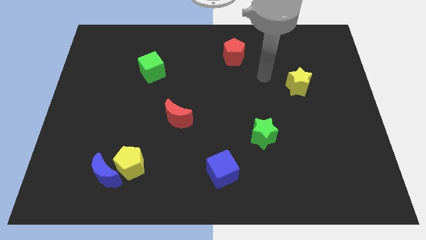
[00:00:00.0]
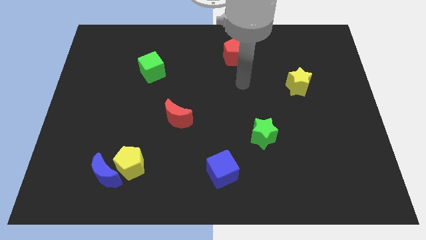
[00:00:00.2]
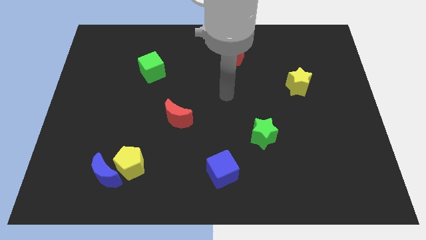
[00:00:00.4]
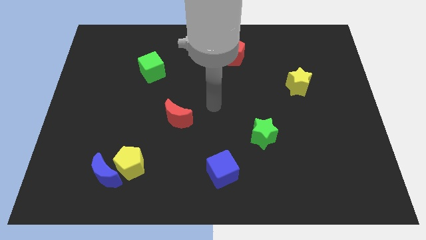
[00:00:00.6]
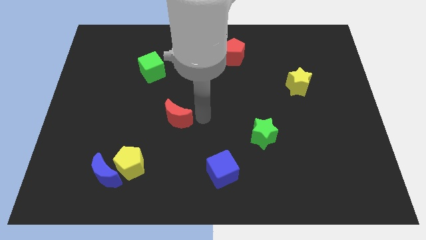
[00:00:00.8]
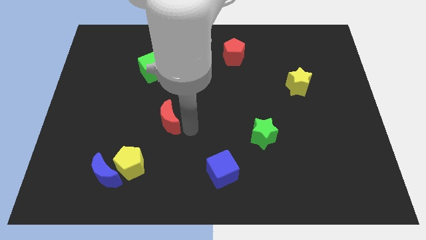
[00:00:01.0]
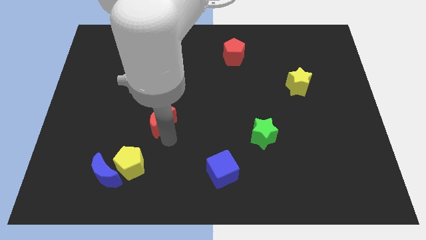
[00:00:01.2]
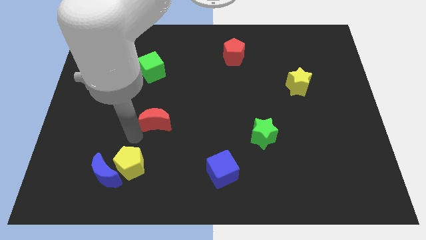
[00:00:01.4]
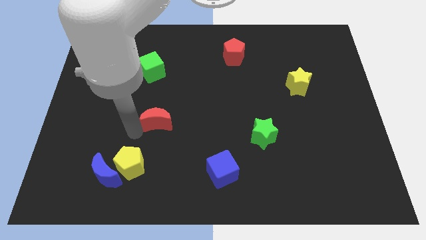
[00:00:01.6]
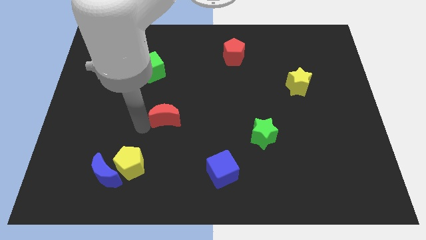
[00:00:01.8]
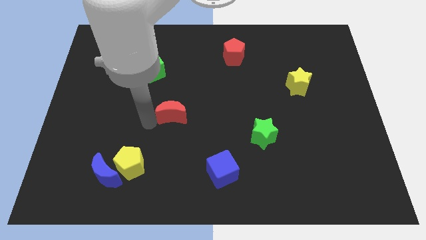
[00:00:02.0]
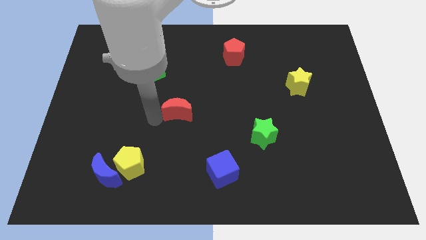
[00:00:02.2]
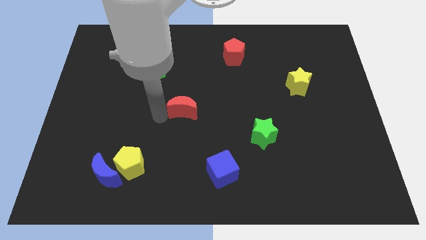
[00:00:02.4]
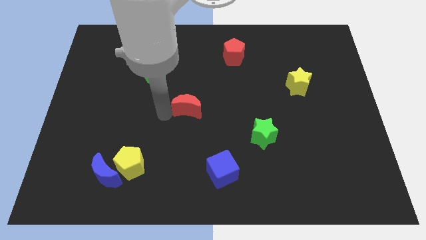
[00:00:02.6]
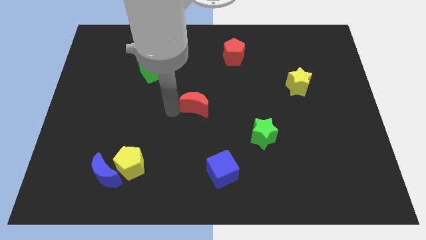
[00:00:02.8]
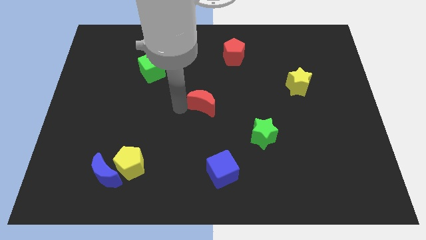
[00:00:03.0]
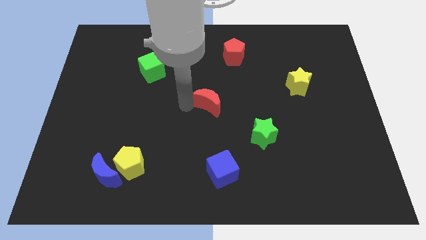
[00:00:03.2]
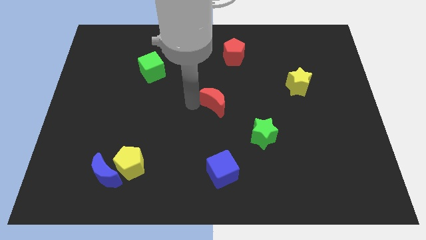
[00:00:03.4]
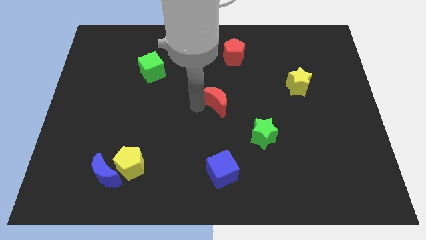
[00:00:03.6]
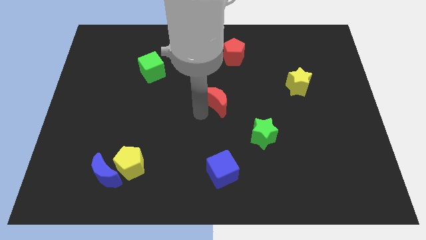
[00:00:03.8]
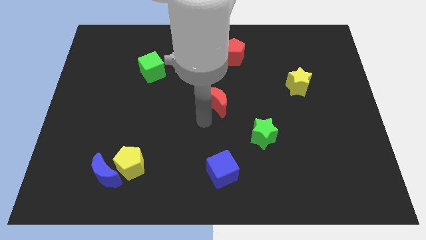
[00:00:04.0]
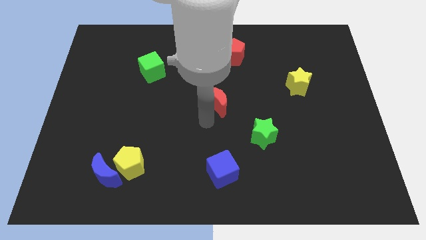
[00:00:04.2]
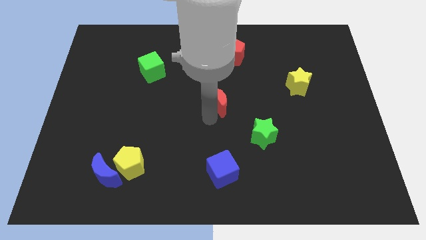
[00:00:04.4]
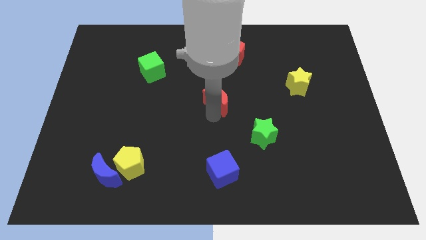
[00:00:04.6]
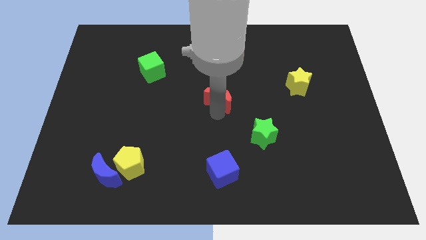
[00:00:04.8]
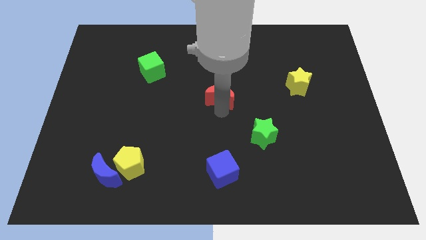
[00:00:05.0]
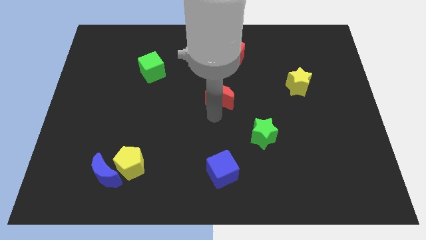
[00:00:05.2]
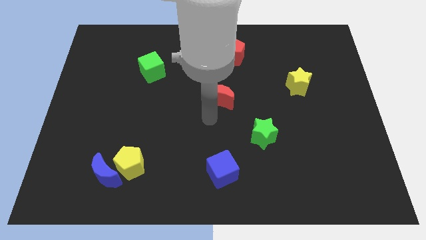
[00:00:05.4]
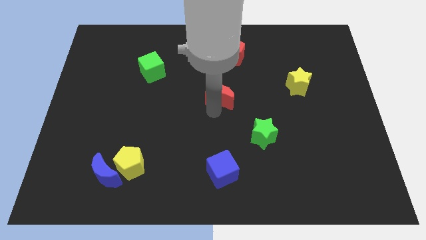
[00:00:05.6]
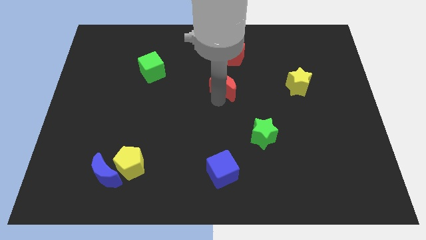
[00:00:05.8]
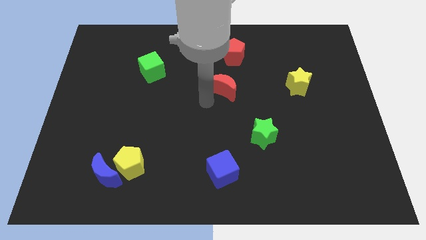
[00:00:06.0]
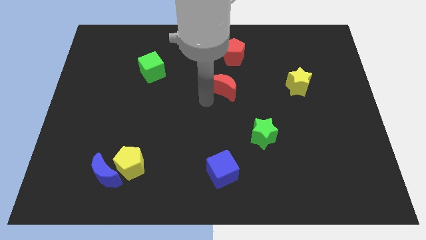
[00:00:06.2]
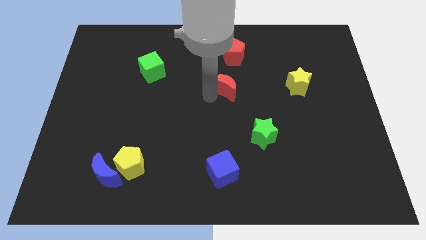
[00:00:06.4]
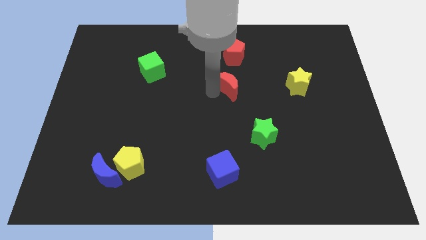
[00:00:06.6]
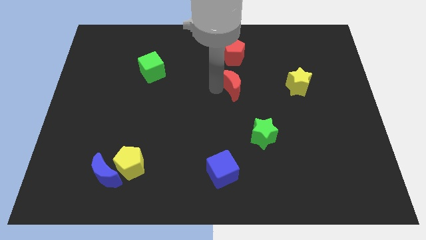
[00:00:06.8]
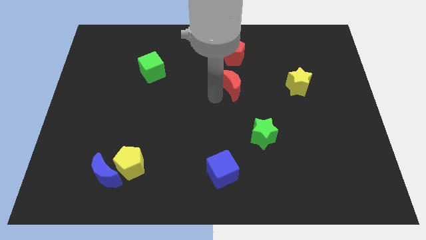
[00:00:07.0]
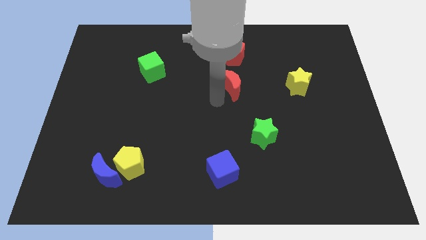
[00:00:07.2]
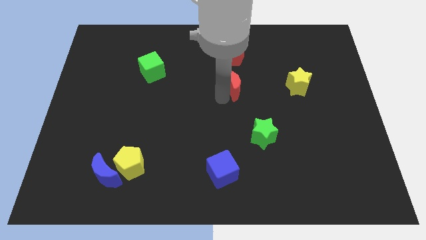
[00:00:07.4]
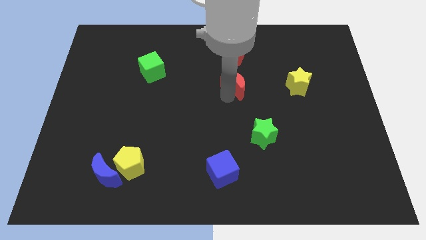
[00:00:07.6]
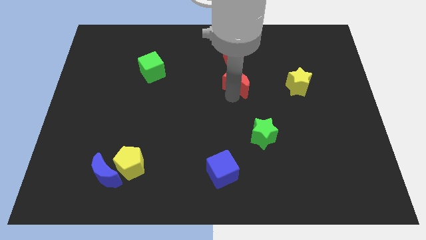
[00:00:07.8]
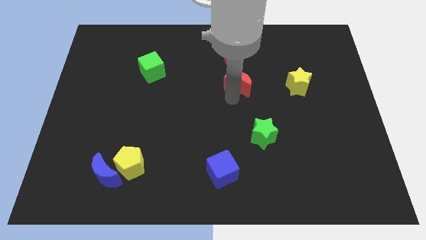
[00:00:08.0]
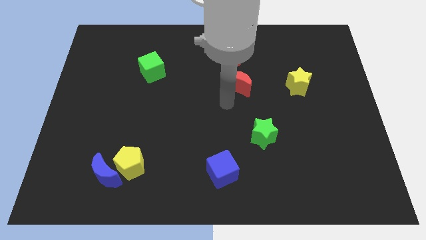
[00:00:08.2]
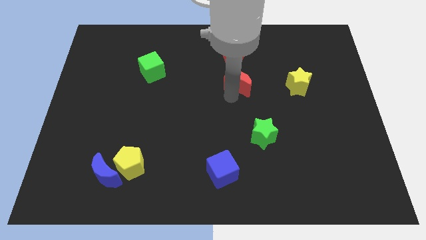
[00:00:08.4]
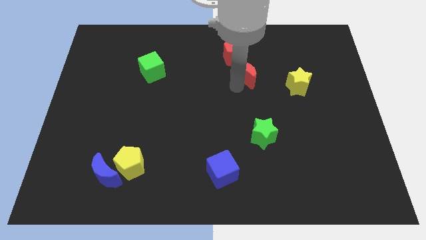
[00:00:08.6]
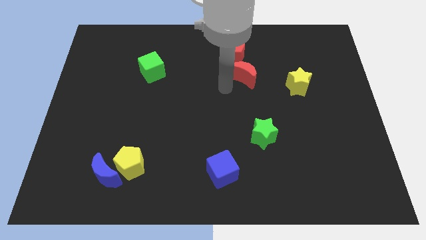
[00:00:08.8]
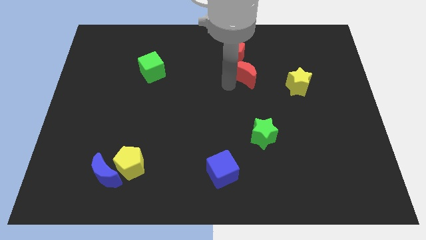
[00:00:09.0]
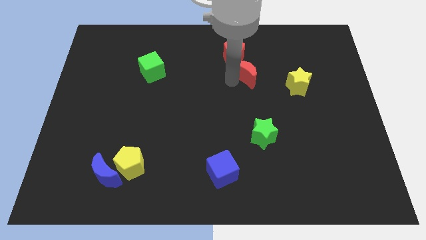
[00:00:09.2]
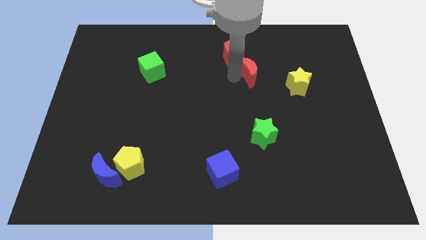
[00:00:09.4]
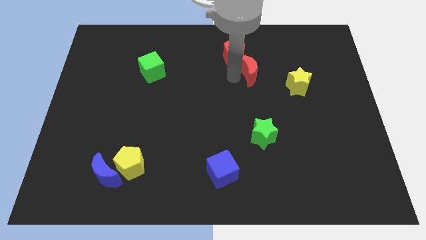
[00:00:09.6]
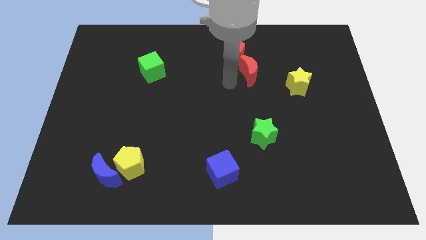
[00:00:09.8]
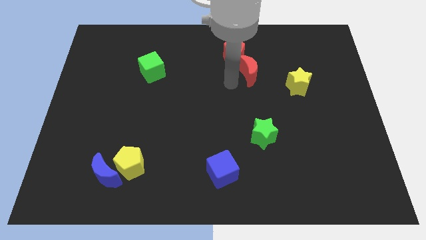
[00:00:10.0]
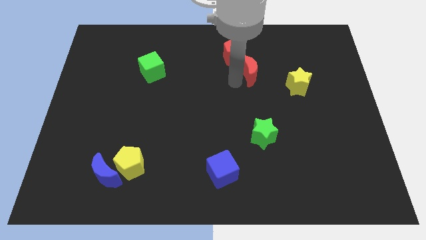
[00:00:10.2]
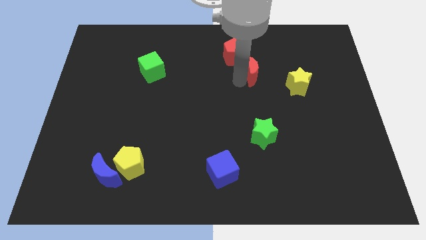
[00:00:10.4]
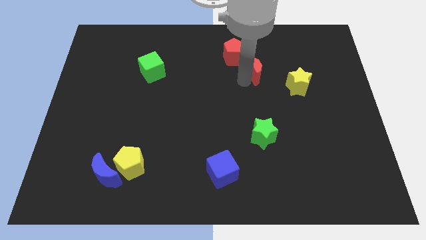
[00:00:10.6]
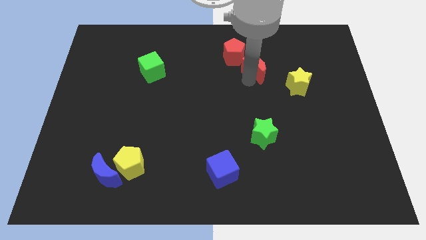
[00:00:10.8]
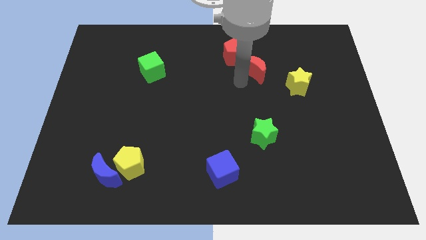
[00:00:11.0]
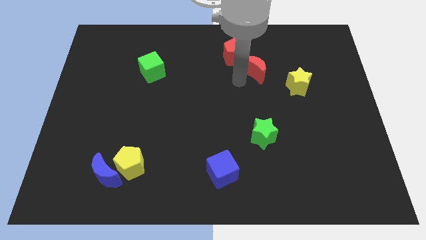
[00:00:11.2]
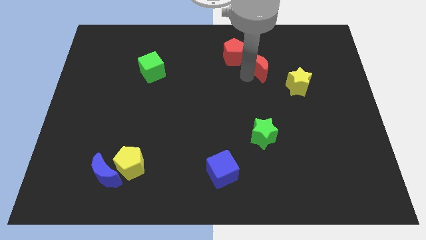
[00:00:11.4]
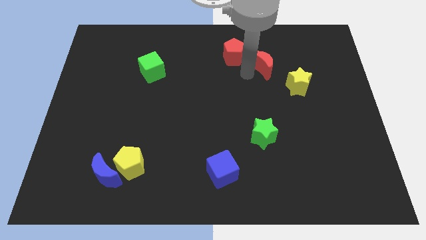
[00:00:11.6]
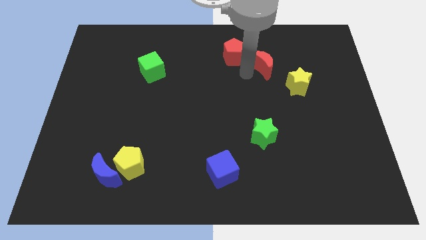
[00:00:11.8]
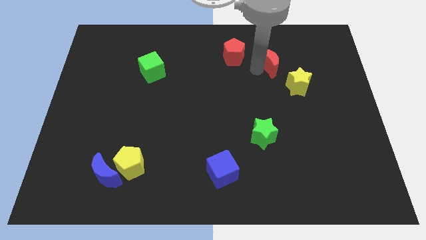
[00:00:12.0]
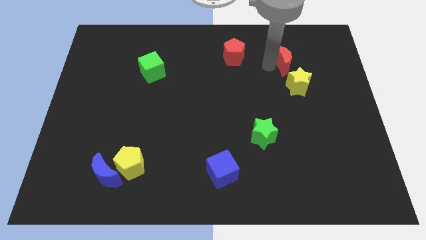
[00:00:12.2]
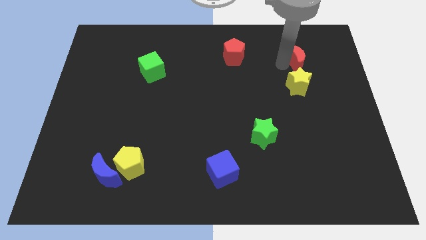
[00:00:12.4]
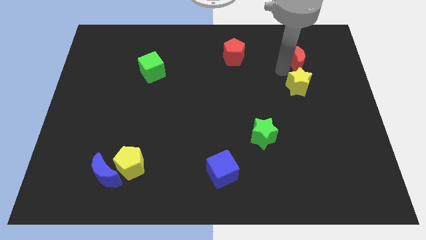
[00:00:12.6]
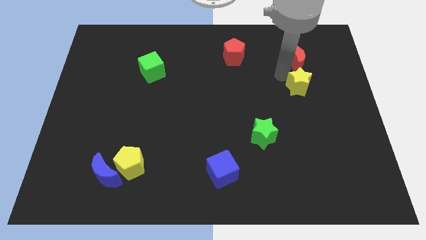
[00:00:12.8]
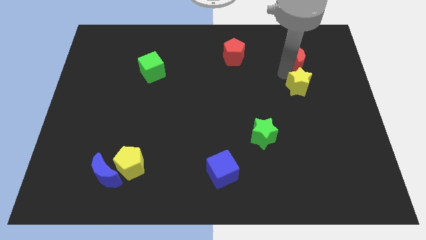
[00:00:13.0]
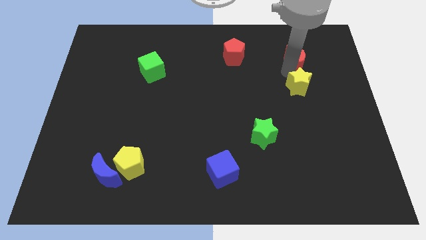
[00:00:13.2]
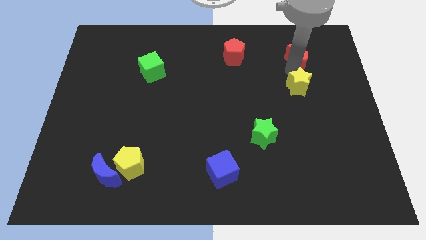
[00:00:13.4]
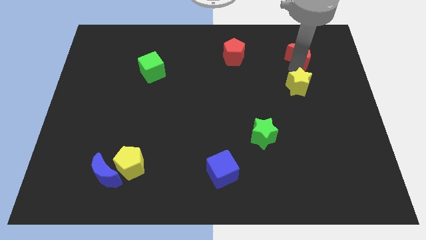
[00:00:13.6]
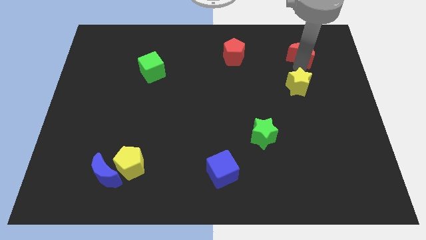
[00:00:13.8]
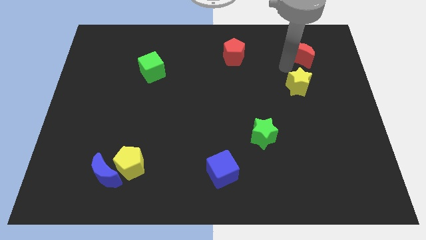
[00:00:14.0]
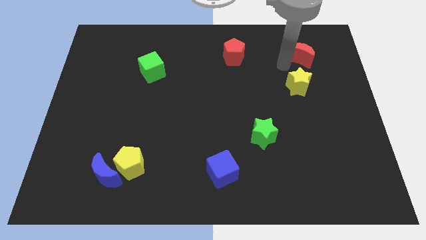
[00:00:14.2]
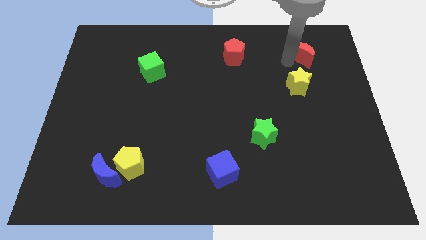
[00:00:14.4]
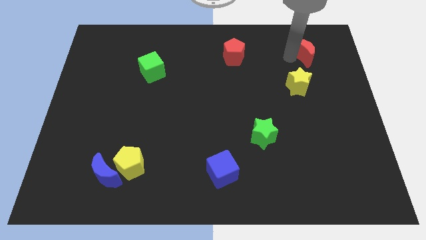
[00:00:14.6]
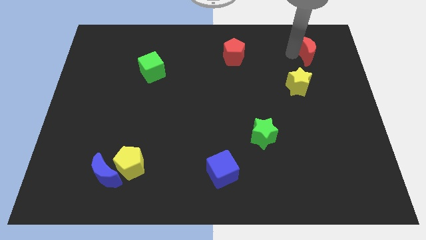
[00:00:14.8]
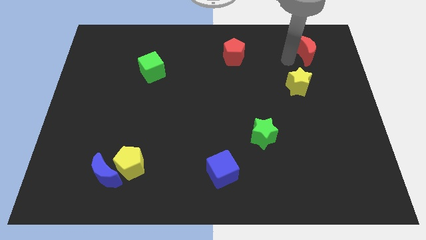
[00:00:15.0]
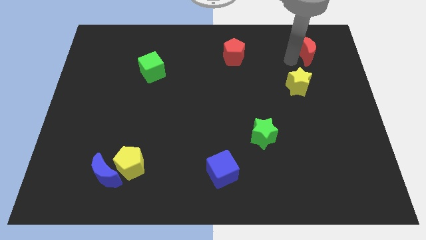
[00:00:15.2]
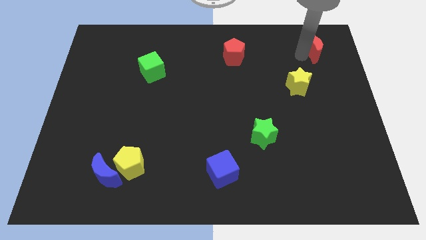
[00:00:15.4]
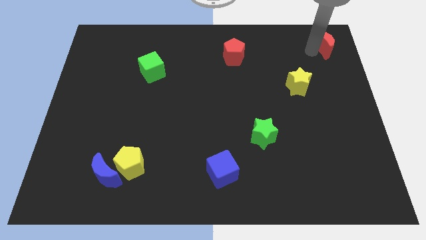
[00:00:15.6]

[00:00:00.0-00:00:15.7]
push the red moon to the top right of the board
